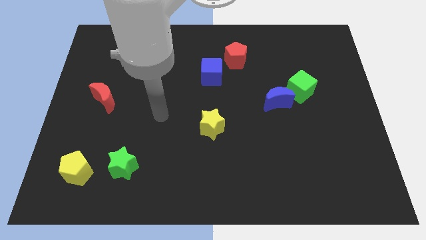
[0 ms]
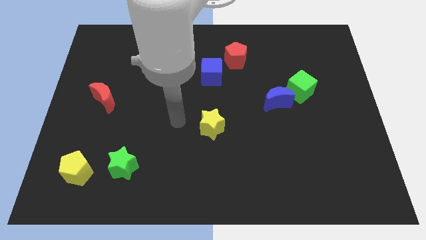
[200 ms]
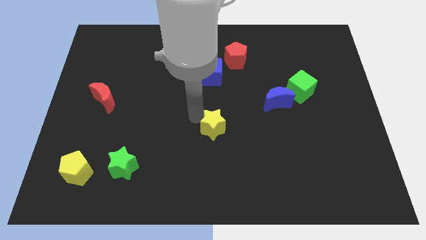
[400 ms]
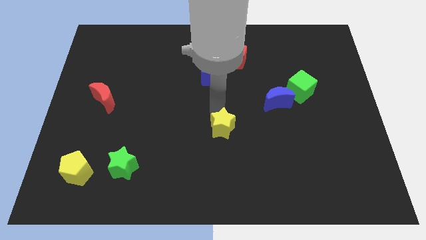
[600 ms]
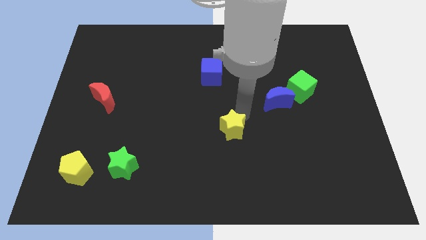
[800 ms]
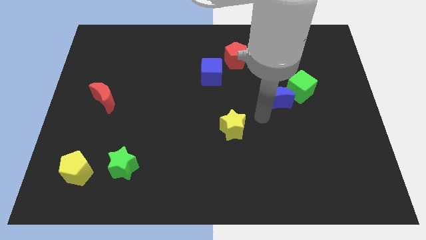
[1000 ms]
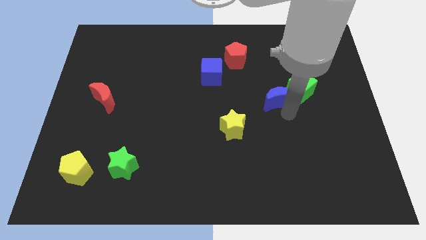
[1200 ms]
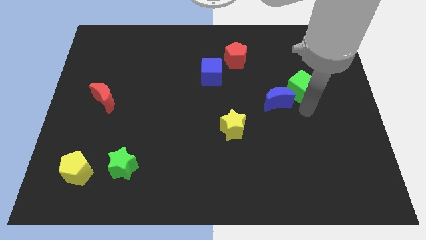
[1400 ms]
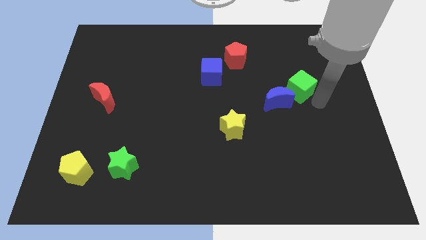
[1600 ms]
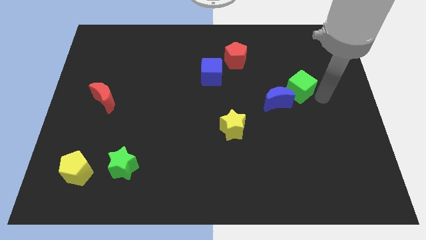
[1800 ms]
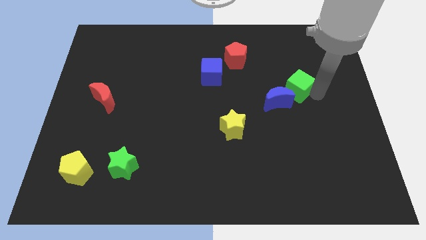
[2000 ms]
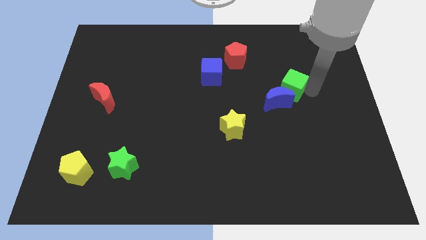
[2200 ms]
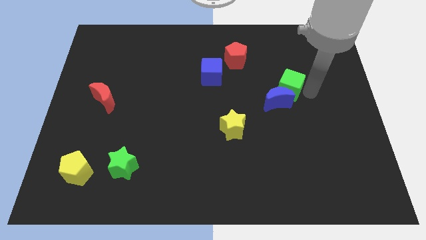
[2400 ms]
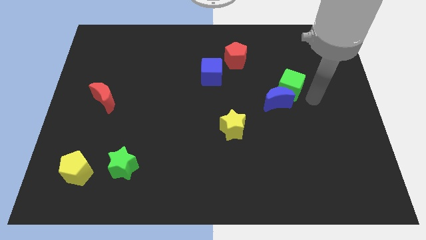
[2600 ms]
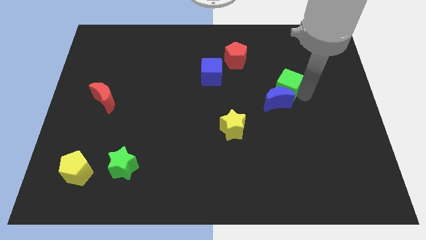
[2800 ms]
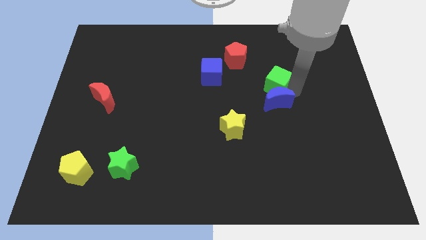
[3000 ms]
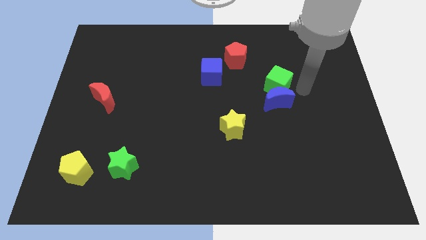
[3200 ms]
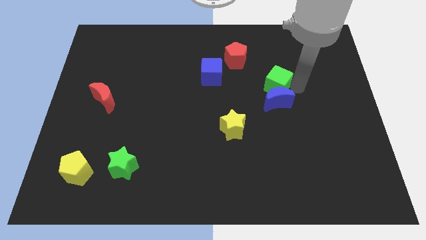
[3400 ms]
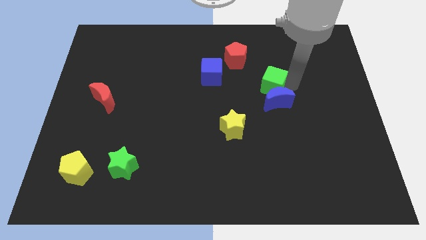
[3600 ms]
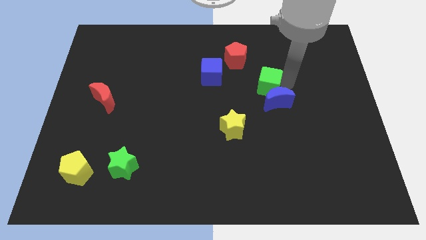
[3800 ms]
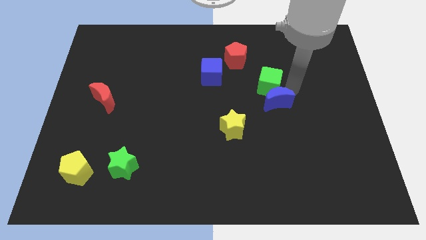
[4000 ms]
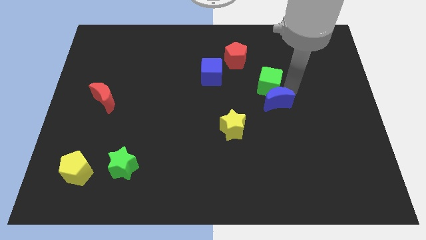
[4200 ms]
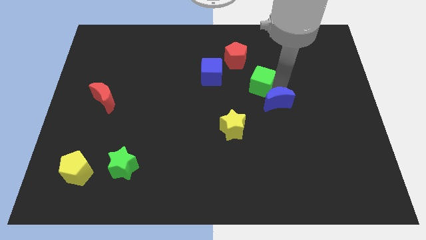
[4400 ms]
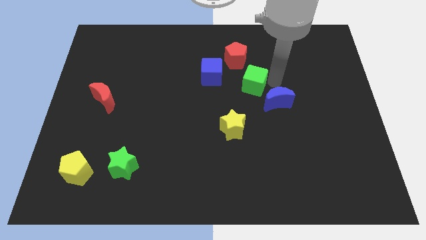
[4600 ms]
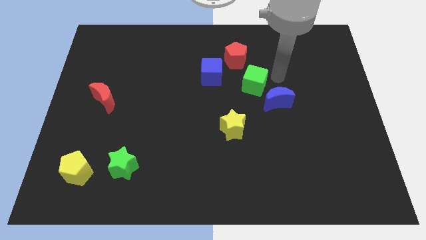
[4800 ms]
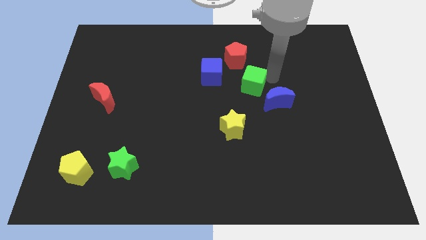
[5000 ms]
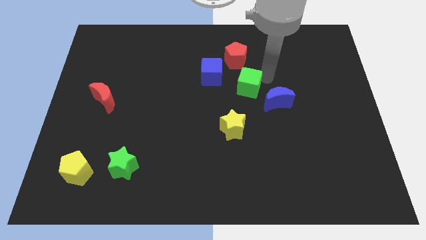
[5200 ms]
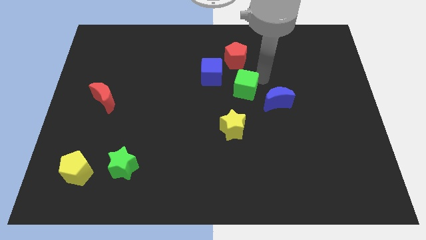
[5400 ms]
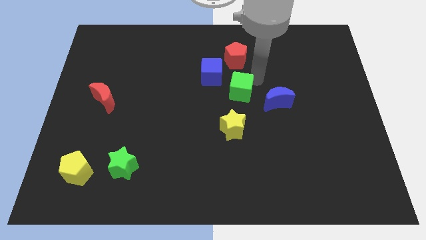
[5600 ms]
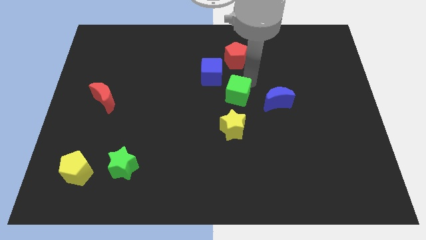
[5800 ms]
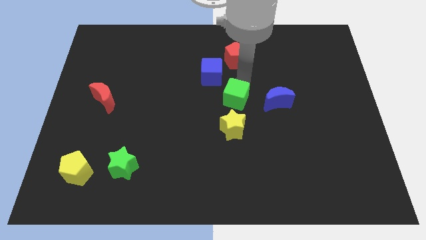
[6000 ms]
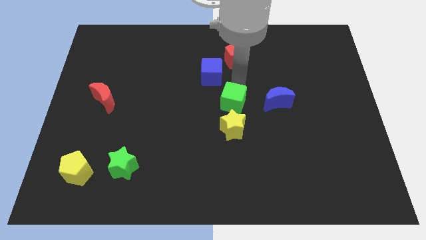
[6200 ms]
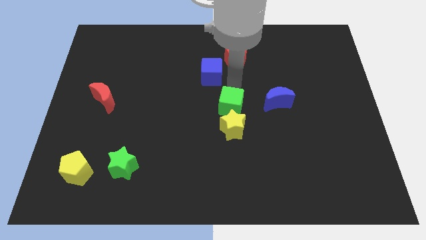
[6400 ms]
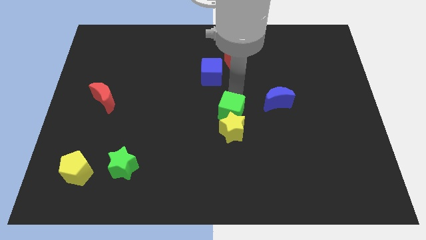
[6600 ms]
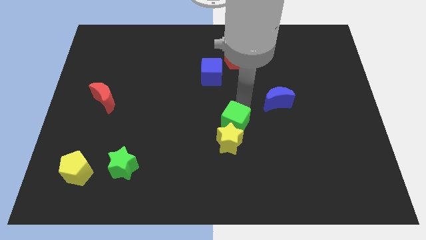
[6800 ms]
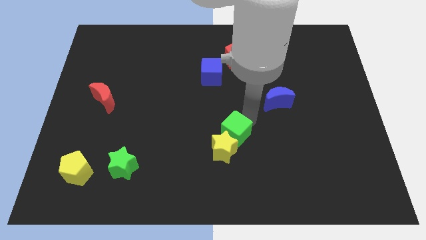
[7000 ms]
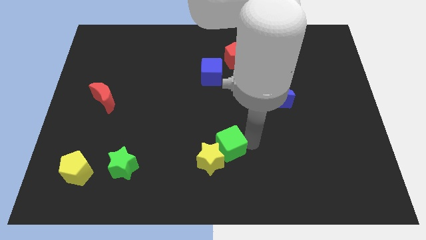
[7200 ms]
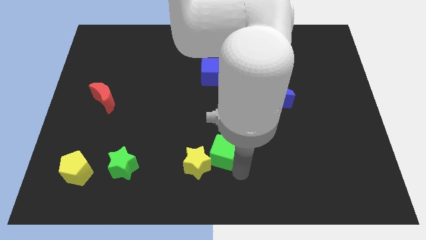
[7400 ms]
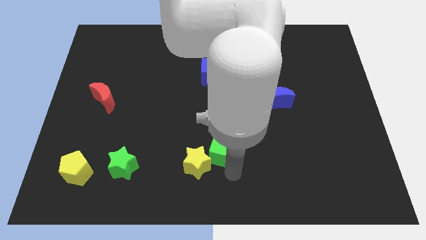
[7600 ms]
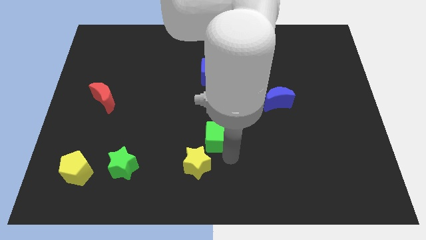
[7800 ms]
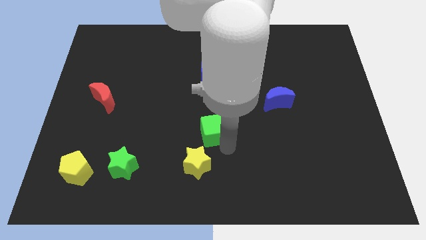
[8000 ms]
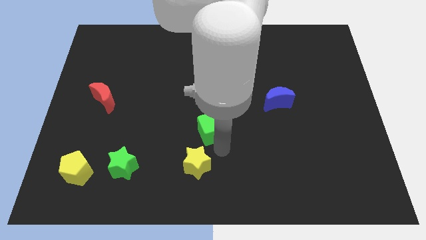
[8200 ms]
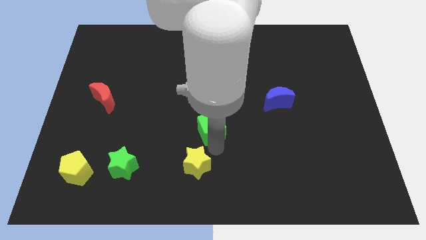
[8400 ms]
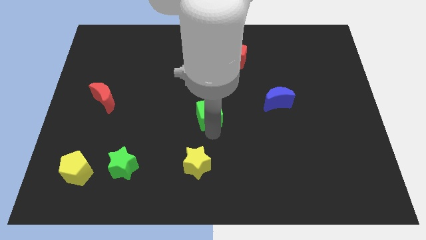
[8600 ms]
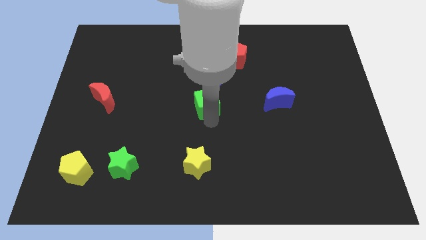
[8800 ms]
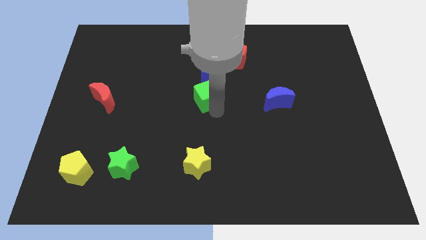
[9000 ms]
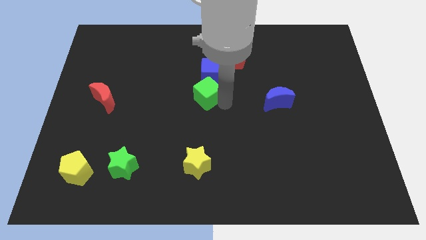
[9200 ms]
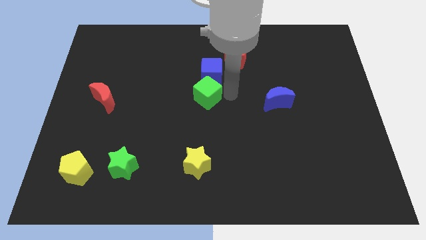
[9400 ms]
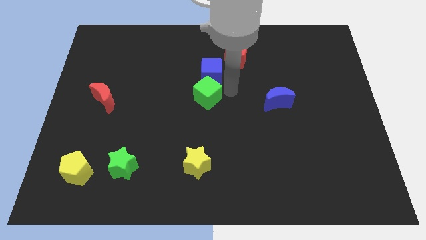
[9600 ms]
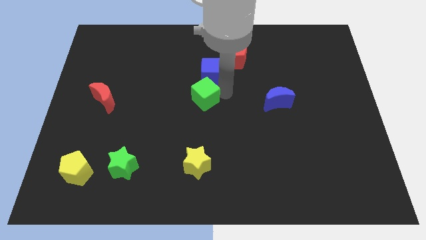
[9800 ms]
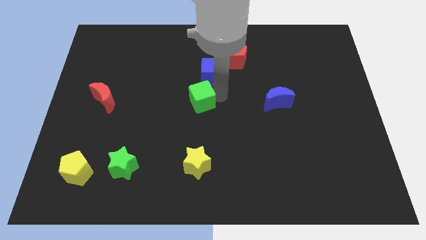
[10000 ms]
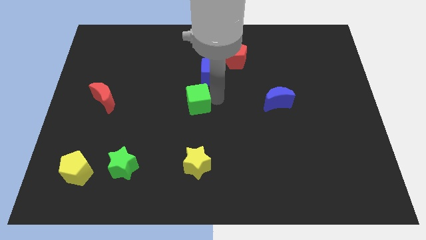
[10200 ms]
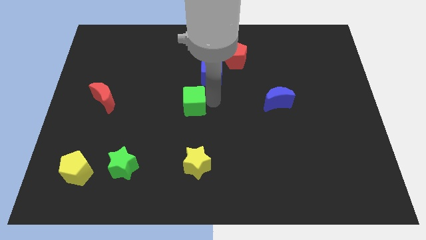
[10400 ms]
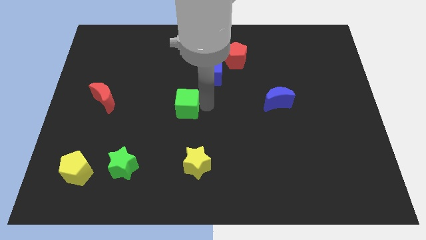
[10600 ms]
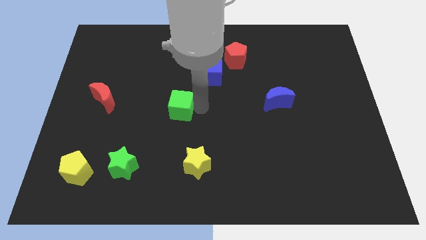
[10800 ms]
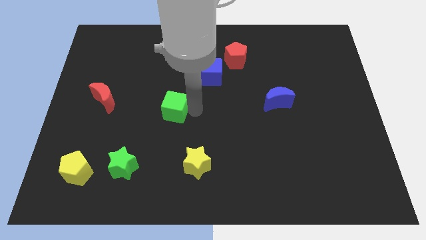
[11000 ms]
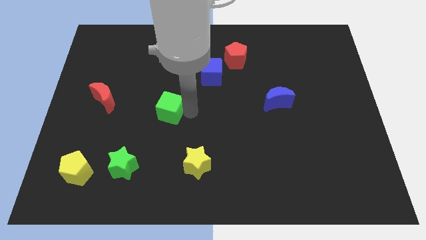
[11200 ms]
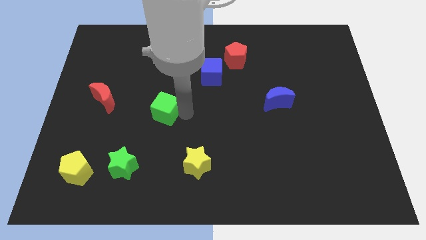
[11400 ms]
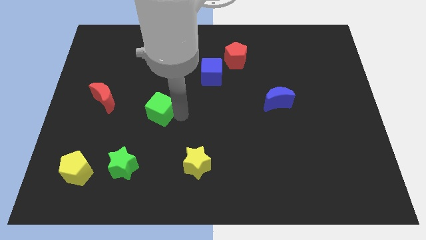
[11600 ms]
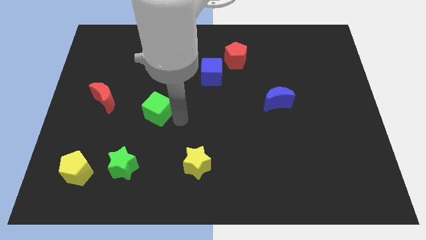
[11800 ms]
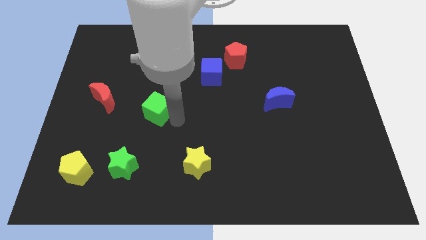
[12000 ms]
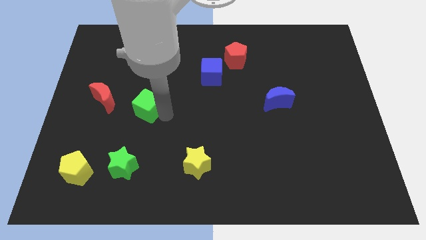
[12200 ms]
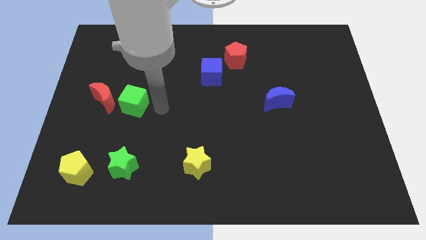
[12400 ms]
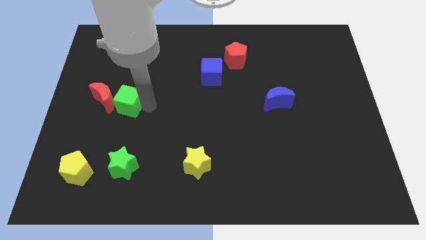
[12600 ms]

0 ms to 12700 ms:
put the green cube close to the red moon

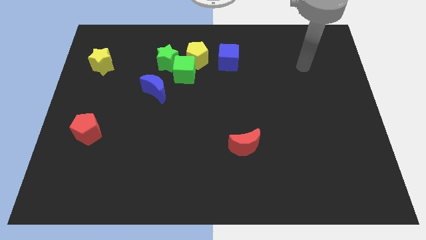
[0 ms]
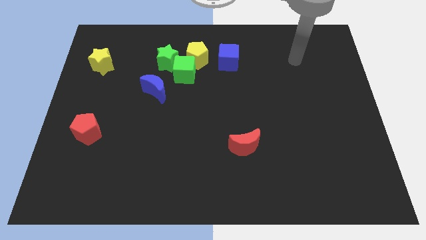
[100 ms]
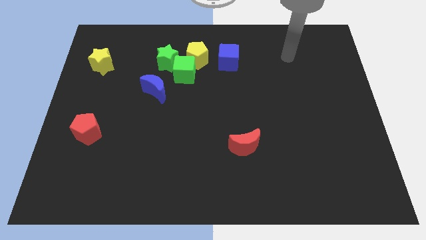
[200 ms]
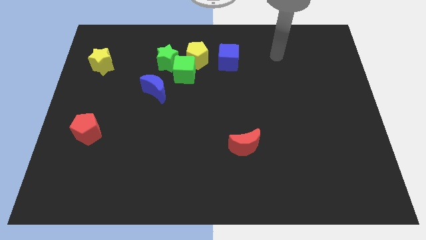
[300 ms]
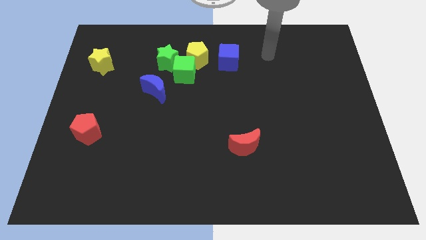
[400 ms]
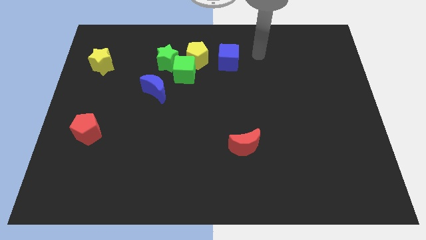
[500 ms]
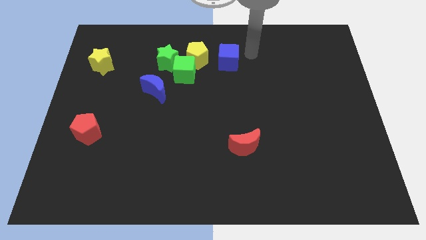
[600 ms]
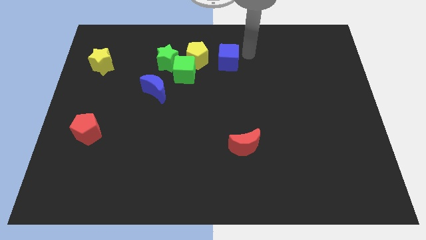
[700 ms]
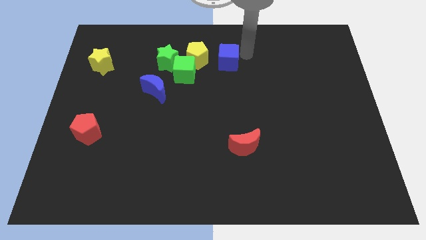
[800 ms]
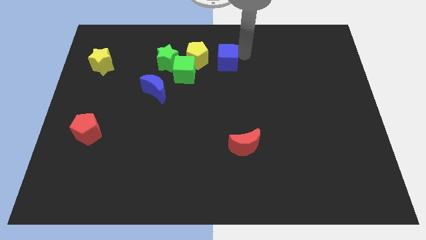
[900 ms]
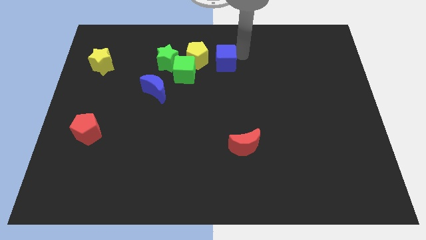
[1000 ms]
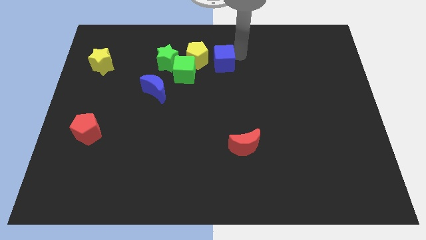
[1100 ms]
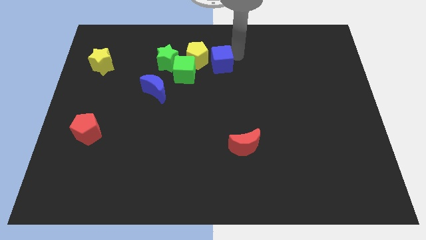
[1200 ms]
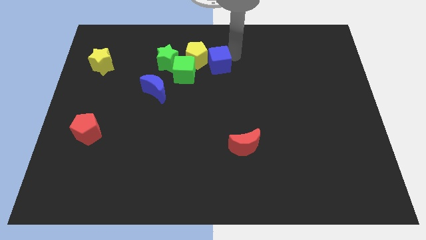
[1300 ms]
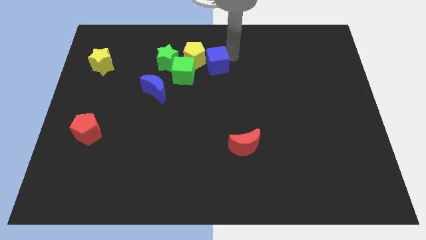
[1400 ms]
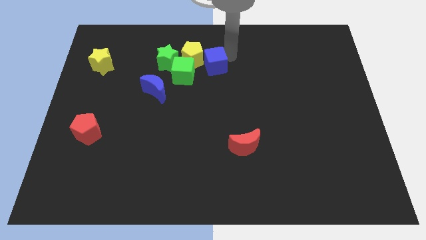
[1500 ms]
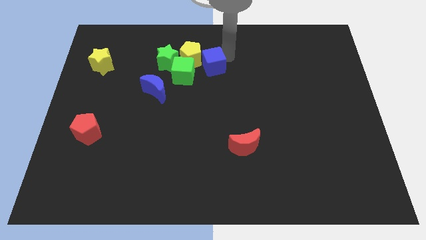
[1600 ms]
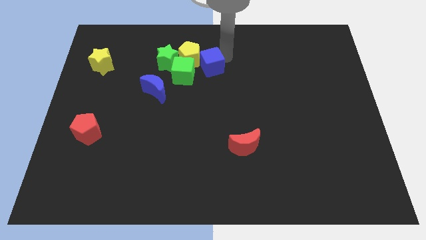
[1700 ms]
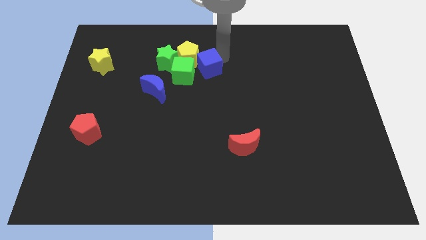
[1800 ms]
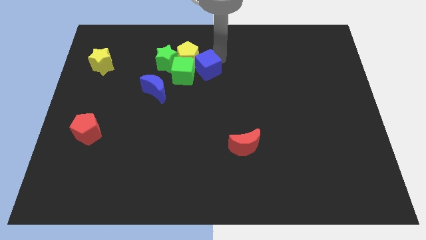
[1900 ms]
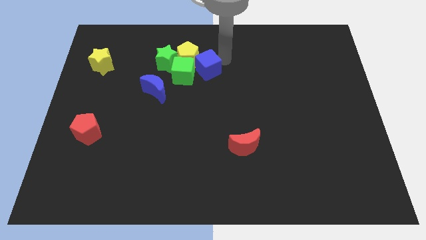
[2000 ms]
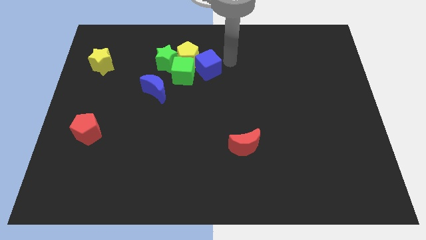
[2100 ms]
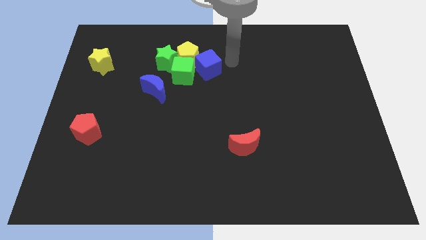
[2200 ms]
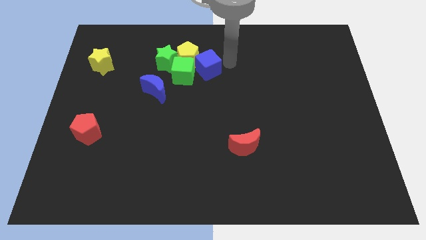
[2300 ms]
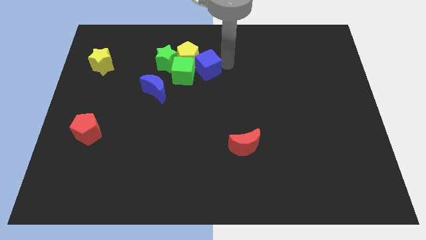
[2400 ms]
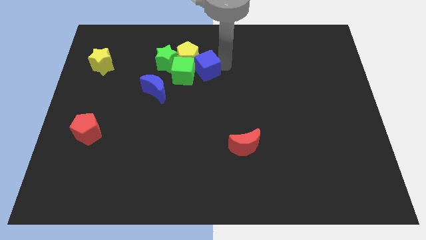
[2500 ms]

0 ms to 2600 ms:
move the blue cube next to the green cube
